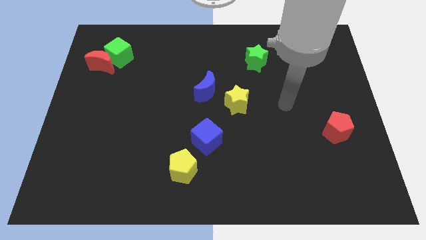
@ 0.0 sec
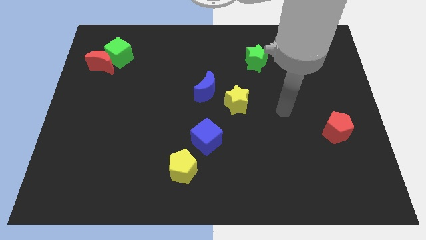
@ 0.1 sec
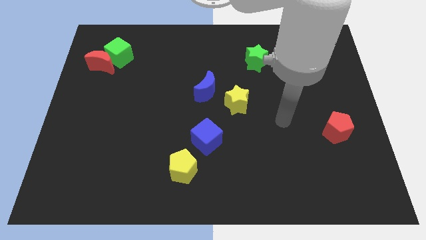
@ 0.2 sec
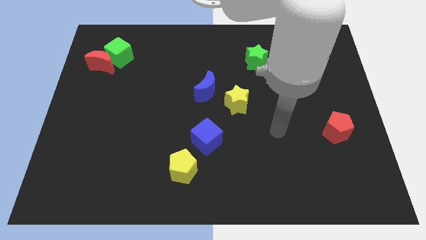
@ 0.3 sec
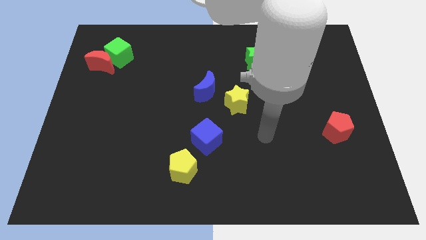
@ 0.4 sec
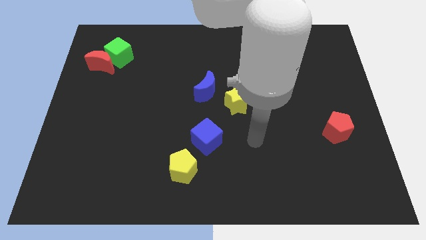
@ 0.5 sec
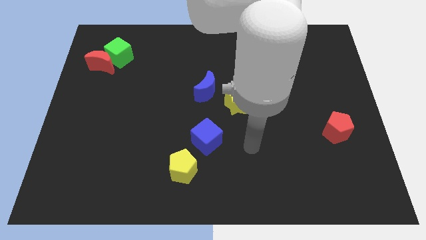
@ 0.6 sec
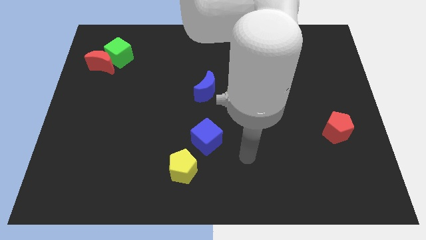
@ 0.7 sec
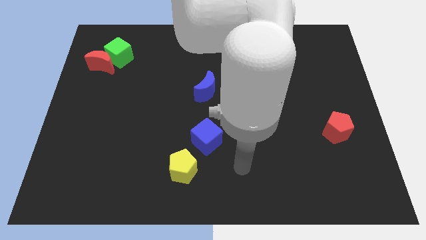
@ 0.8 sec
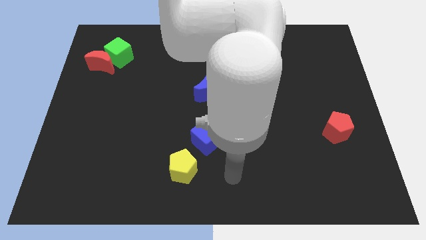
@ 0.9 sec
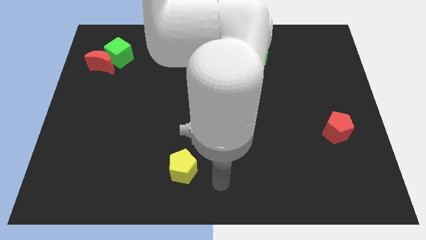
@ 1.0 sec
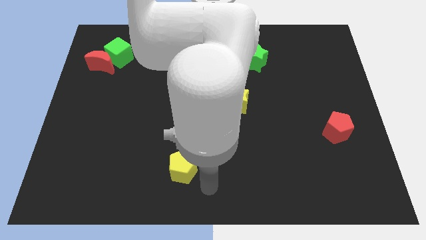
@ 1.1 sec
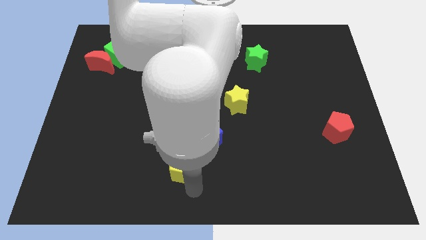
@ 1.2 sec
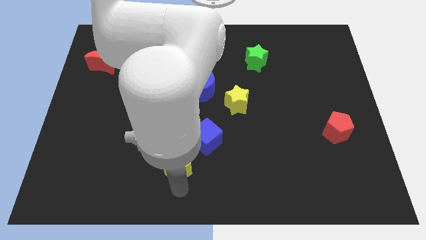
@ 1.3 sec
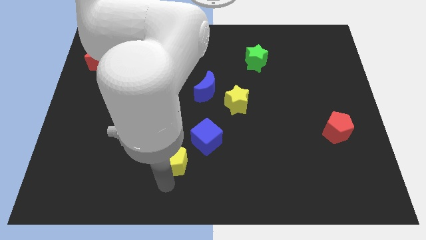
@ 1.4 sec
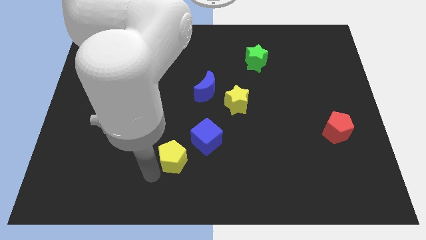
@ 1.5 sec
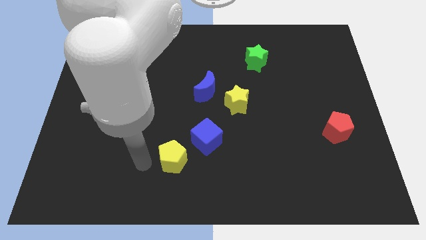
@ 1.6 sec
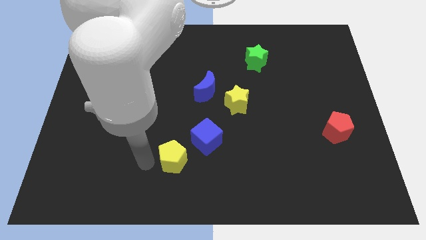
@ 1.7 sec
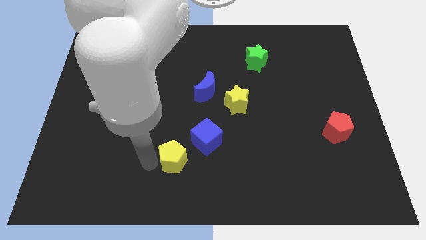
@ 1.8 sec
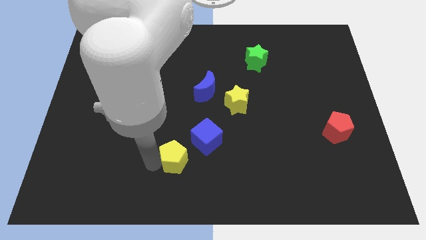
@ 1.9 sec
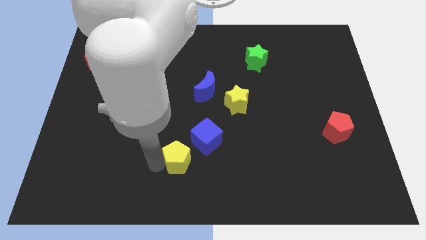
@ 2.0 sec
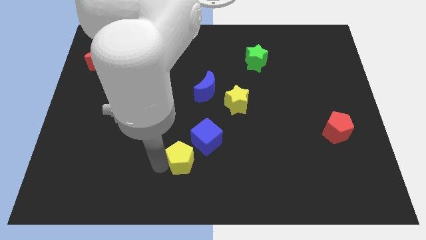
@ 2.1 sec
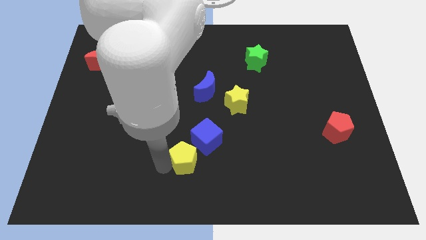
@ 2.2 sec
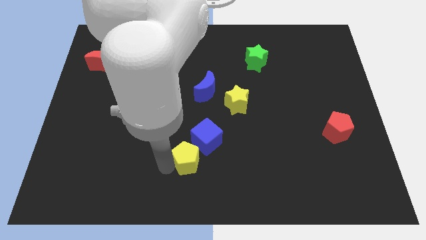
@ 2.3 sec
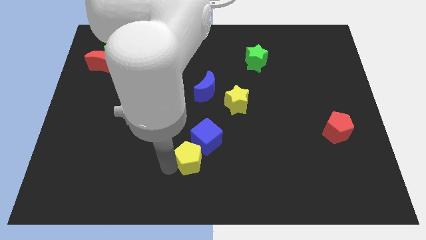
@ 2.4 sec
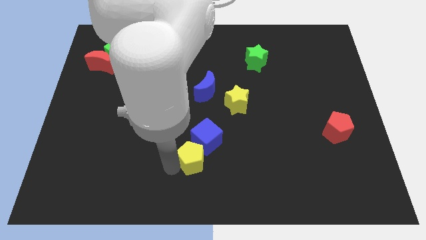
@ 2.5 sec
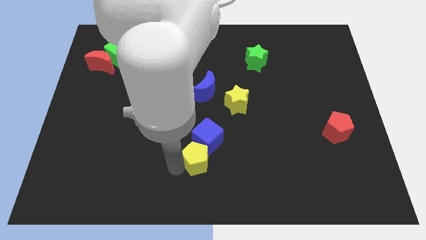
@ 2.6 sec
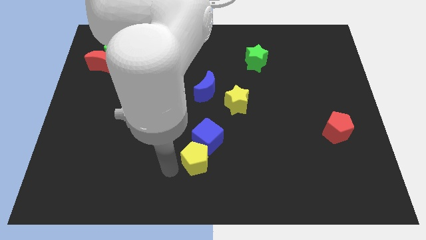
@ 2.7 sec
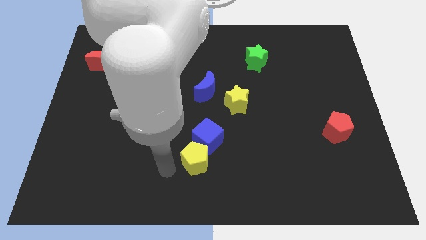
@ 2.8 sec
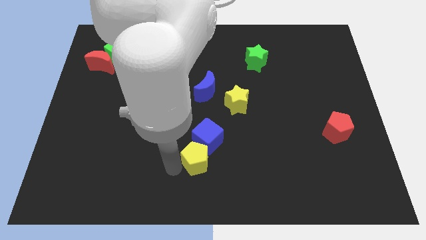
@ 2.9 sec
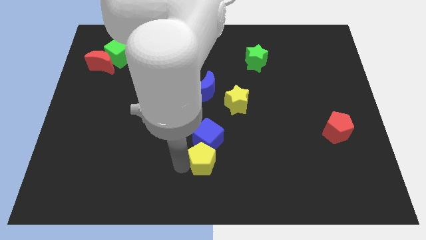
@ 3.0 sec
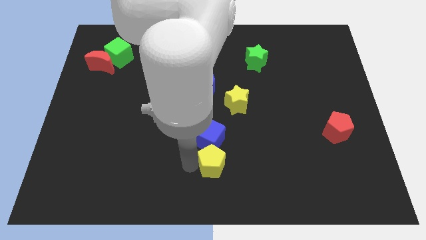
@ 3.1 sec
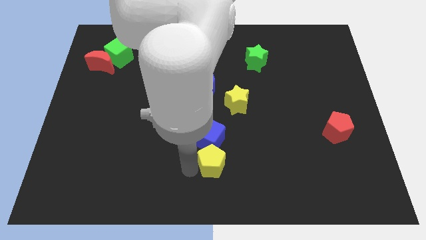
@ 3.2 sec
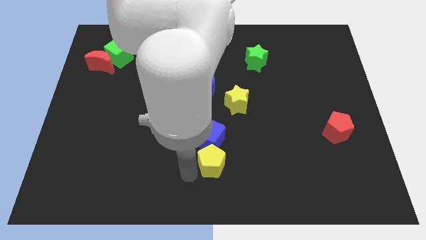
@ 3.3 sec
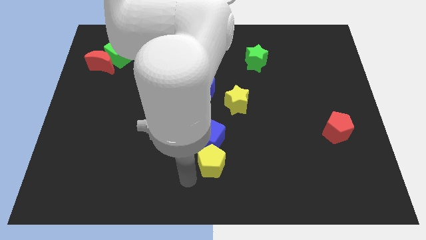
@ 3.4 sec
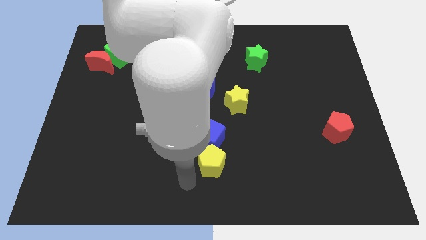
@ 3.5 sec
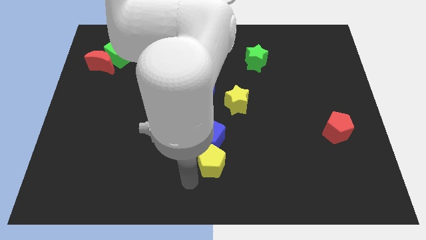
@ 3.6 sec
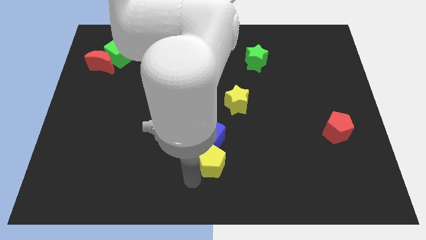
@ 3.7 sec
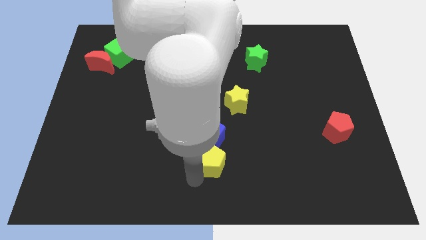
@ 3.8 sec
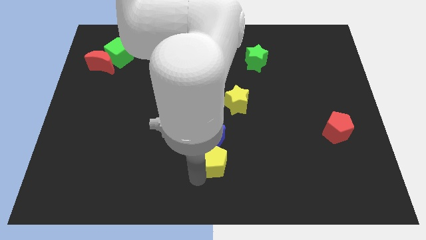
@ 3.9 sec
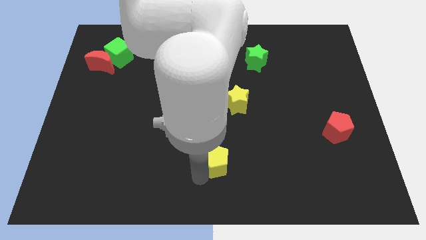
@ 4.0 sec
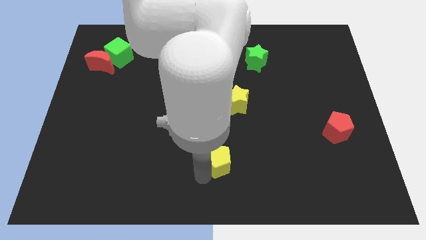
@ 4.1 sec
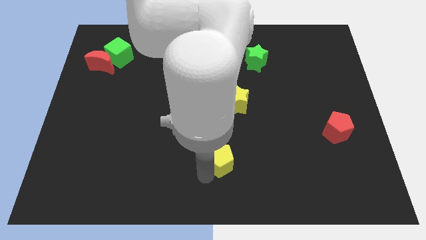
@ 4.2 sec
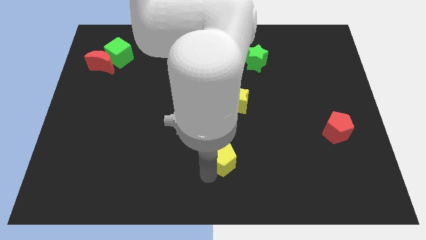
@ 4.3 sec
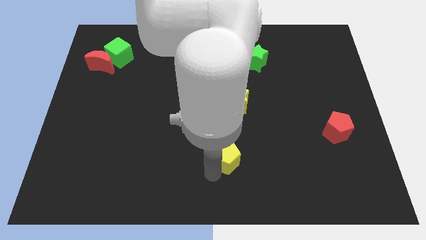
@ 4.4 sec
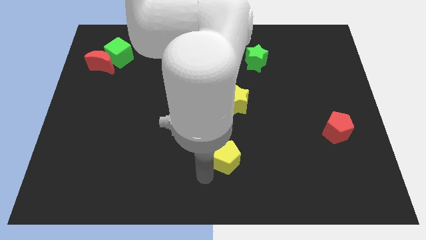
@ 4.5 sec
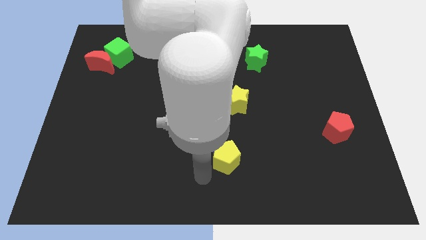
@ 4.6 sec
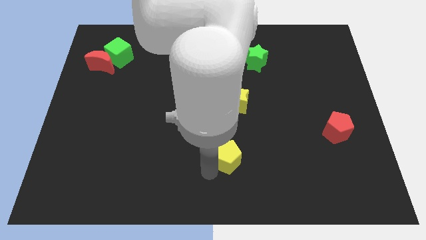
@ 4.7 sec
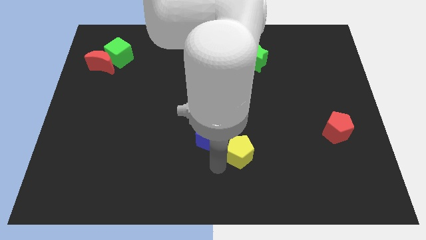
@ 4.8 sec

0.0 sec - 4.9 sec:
slide the yellow pentagon to the right of the blue cube

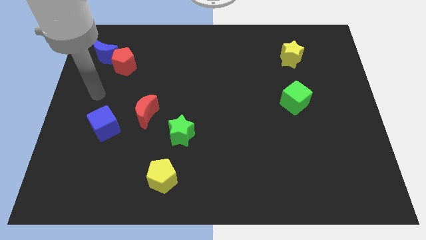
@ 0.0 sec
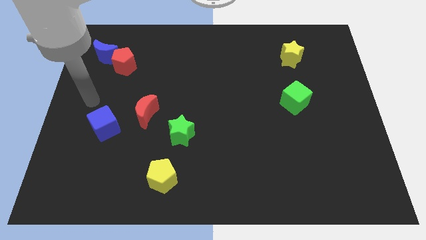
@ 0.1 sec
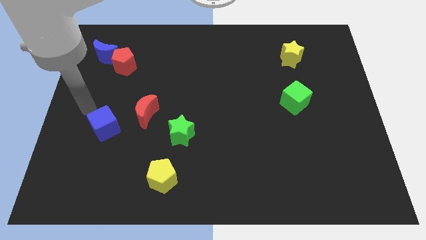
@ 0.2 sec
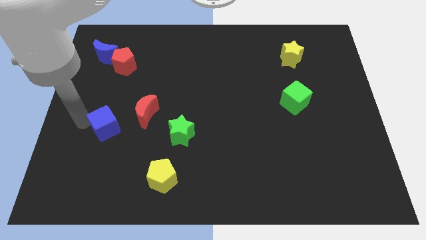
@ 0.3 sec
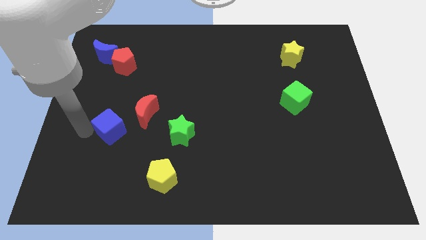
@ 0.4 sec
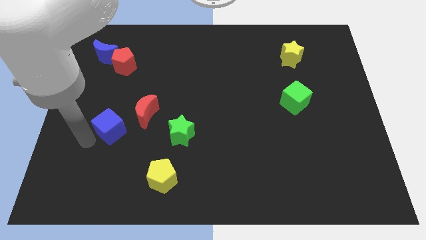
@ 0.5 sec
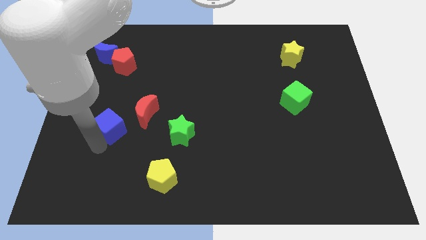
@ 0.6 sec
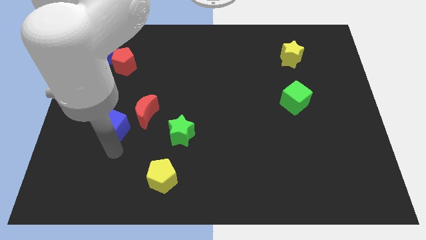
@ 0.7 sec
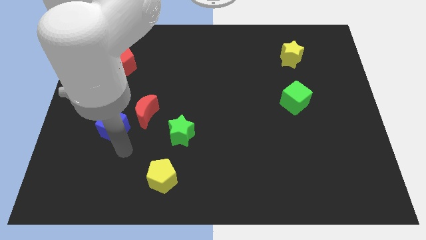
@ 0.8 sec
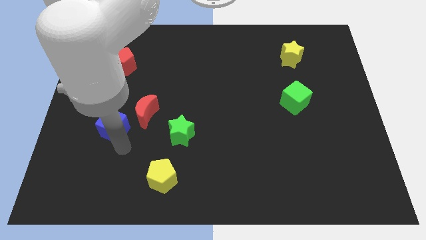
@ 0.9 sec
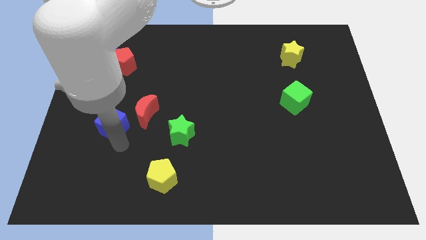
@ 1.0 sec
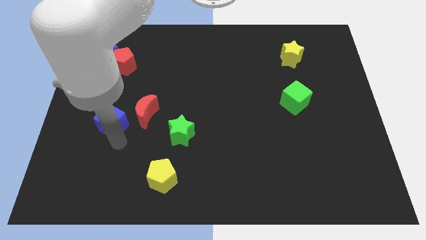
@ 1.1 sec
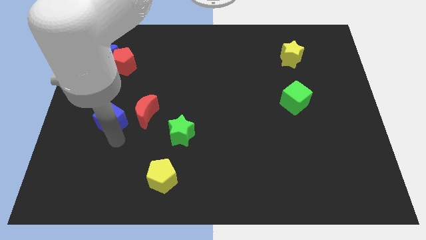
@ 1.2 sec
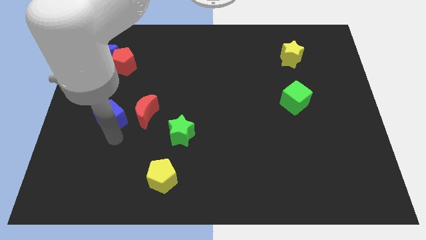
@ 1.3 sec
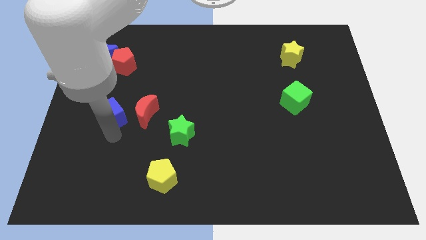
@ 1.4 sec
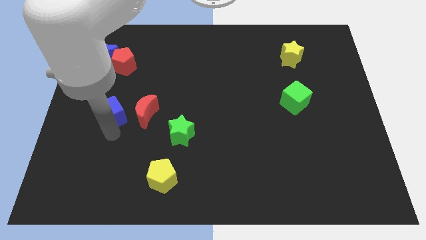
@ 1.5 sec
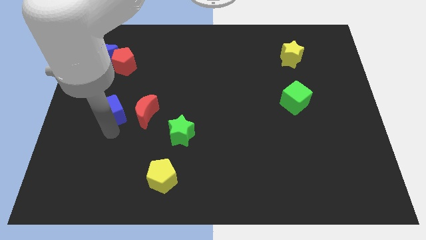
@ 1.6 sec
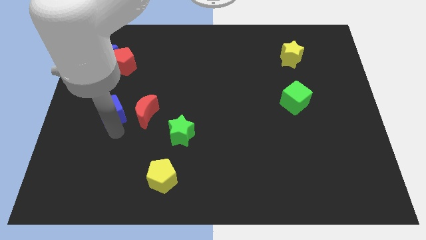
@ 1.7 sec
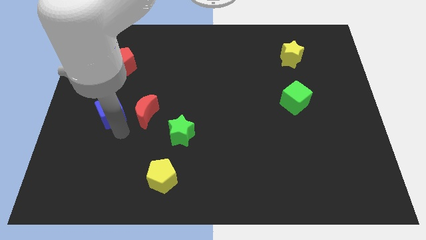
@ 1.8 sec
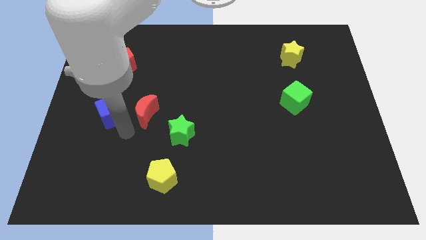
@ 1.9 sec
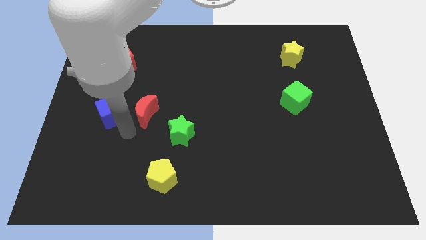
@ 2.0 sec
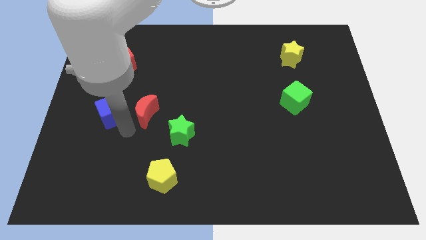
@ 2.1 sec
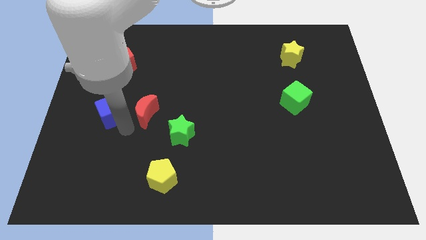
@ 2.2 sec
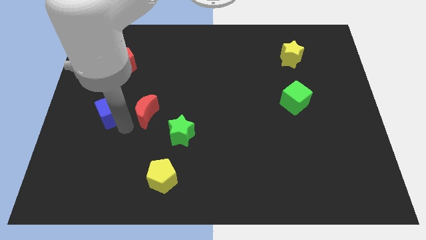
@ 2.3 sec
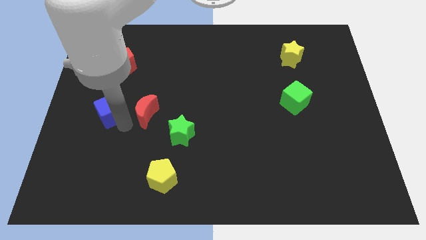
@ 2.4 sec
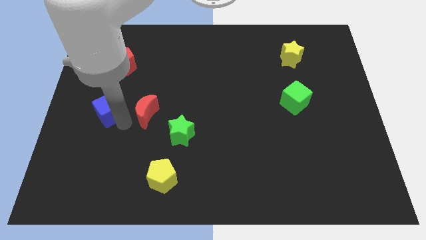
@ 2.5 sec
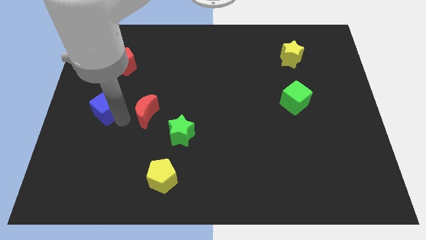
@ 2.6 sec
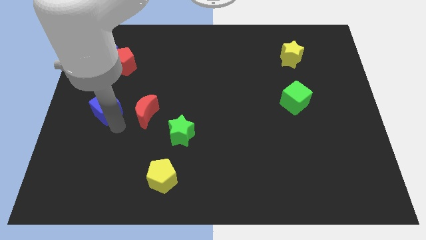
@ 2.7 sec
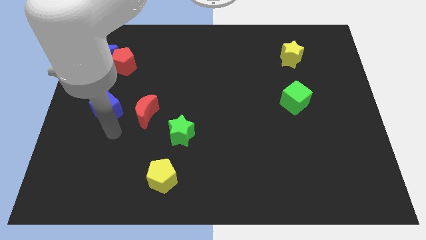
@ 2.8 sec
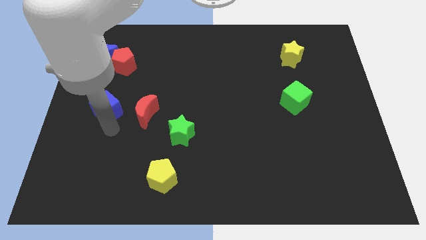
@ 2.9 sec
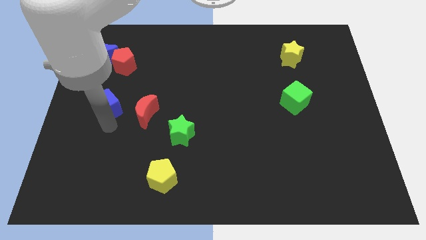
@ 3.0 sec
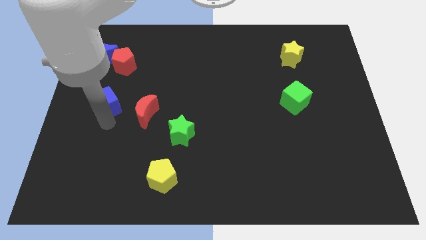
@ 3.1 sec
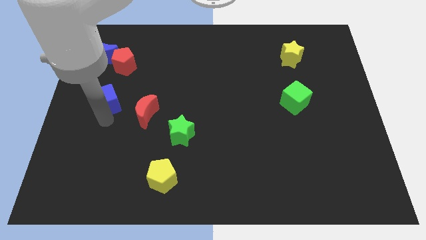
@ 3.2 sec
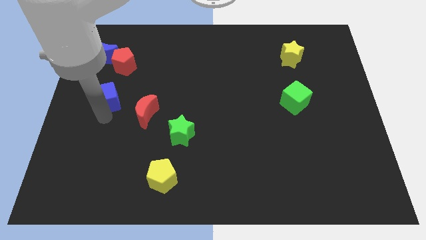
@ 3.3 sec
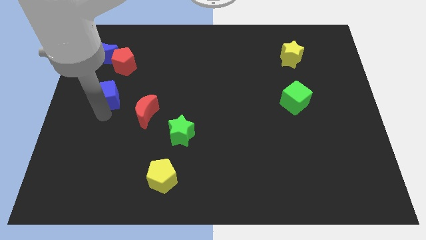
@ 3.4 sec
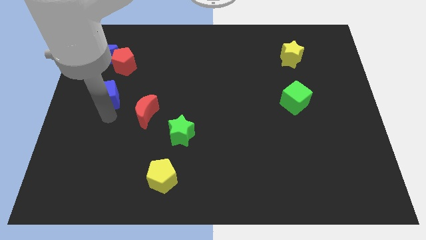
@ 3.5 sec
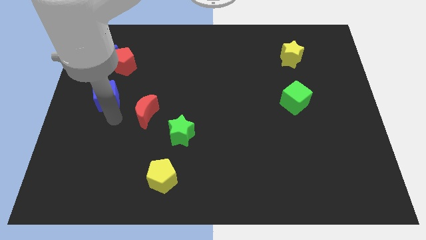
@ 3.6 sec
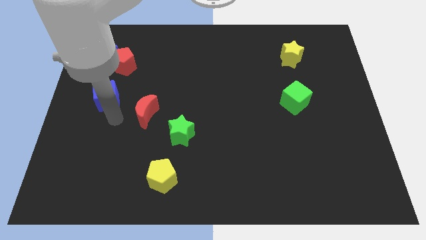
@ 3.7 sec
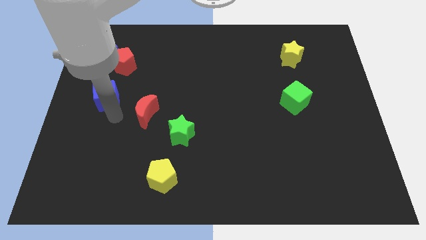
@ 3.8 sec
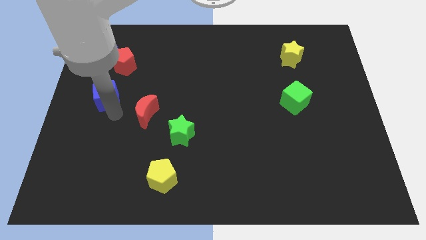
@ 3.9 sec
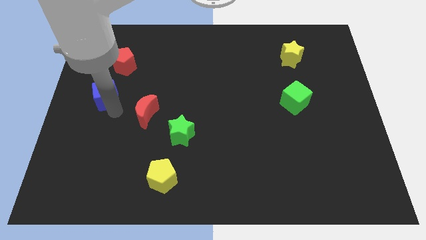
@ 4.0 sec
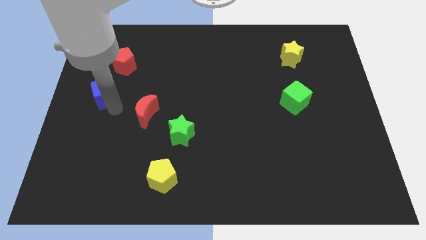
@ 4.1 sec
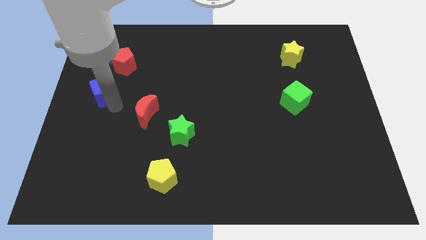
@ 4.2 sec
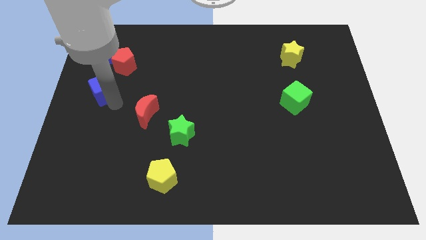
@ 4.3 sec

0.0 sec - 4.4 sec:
move the blue cube to the bottom left side of the red pentagon
